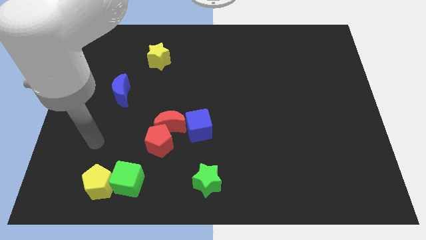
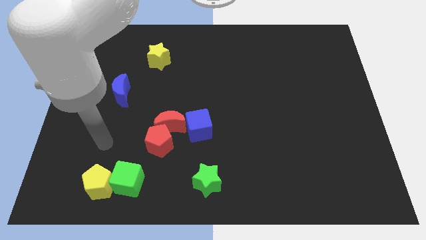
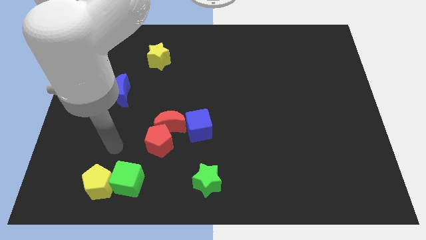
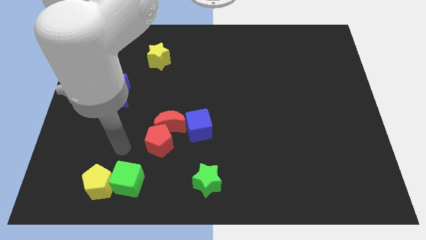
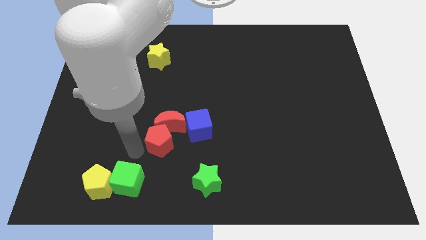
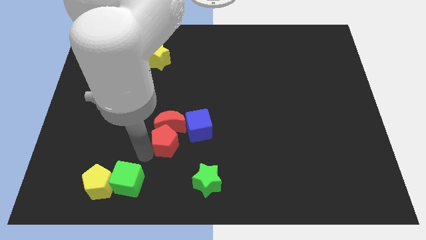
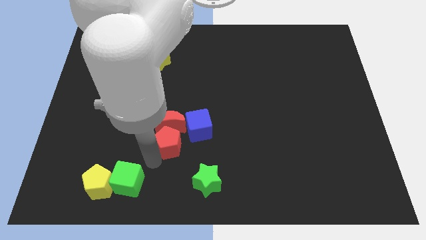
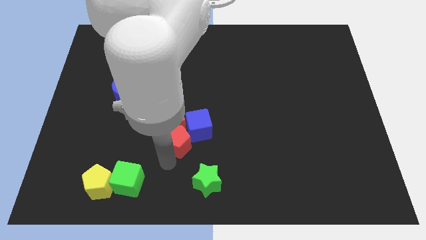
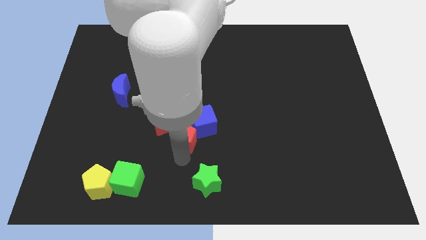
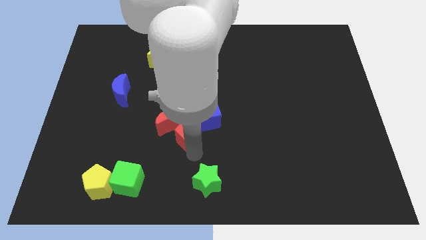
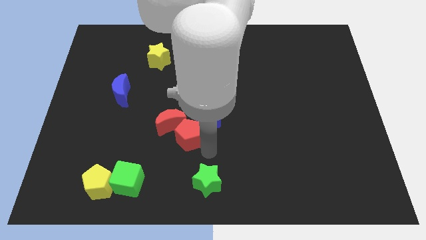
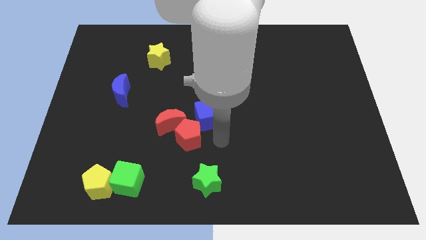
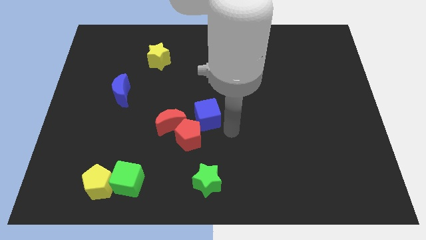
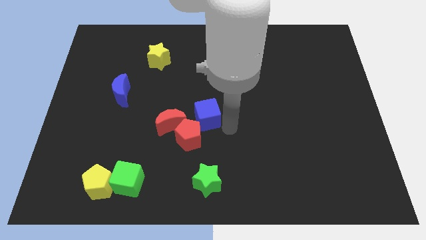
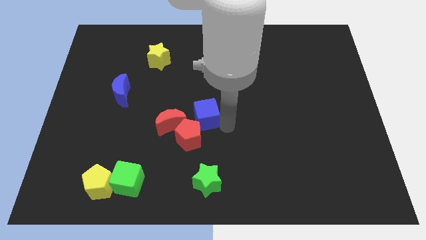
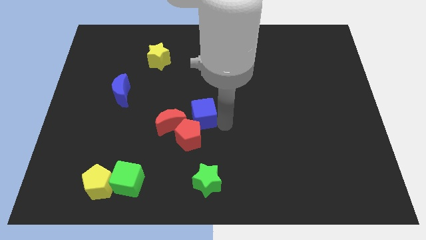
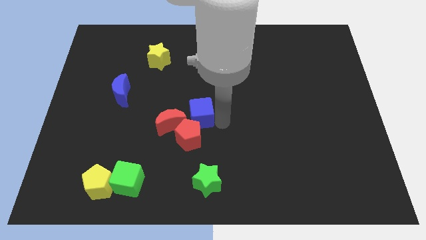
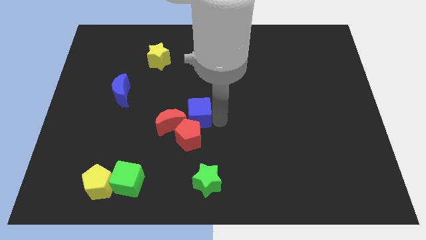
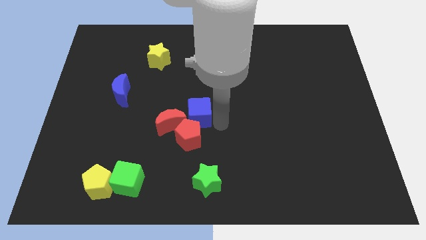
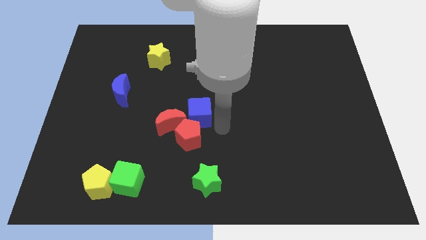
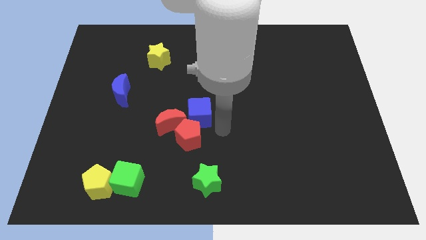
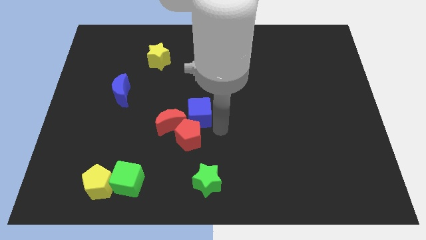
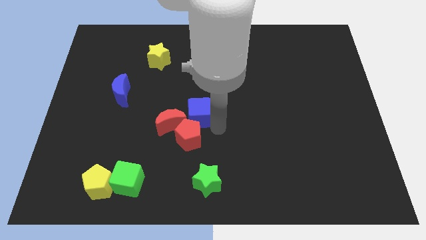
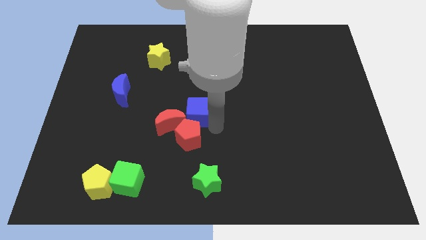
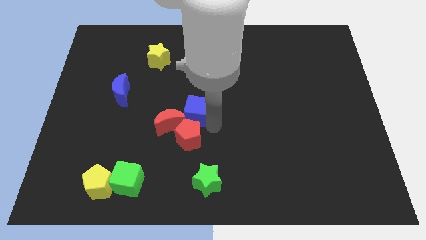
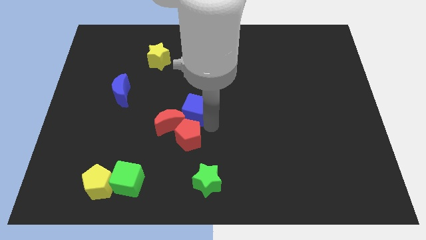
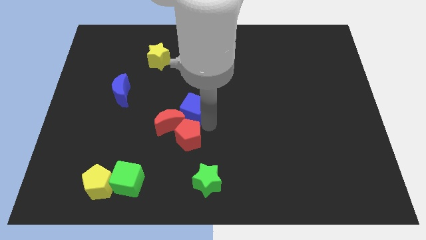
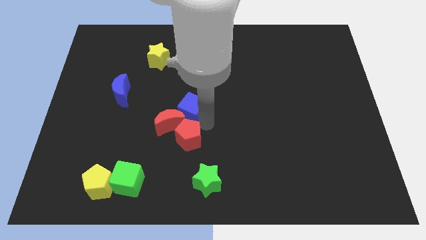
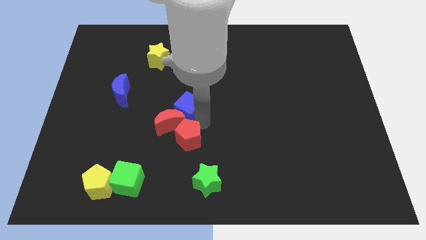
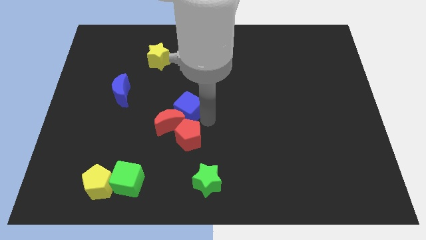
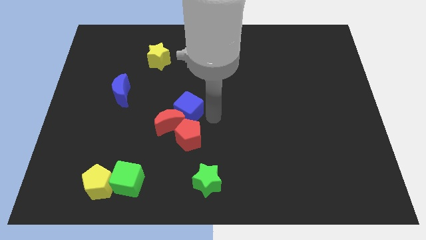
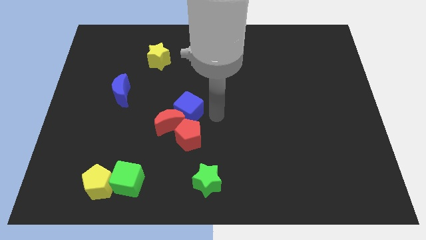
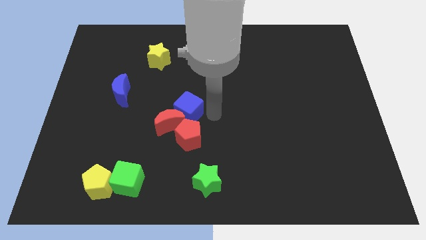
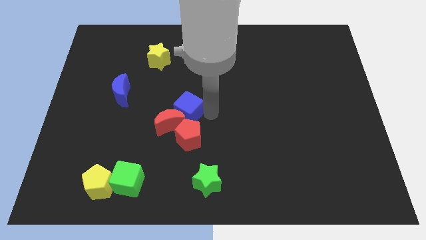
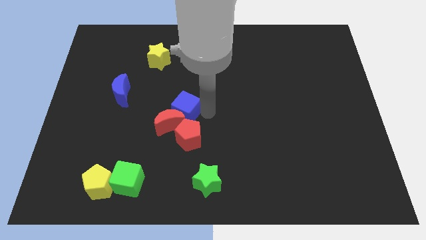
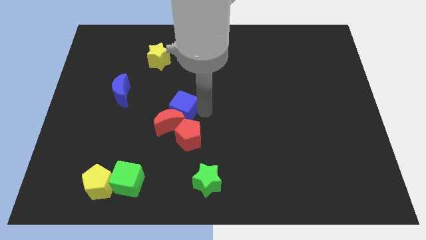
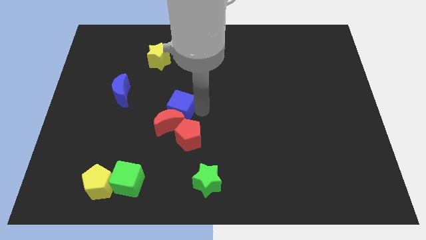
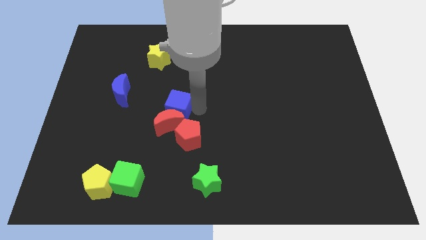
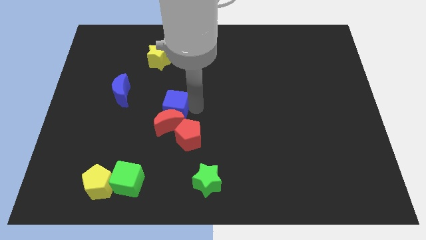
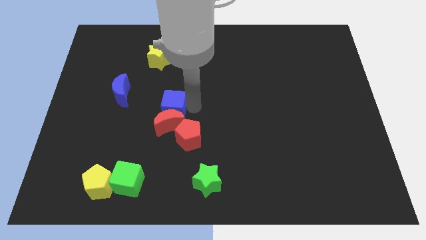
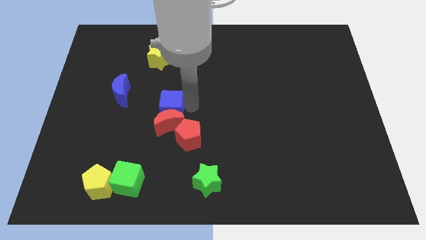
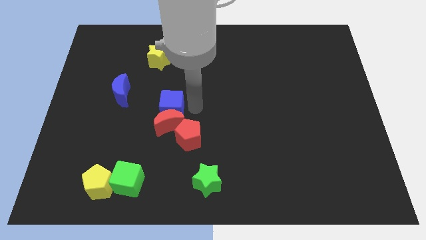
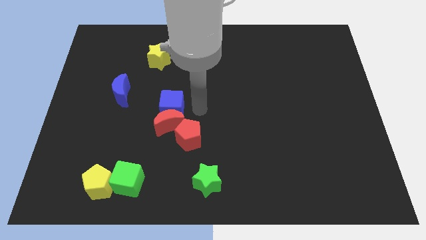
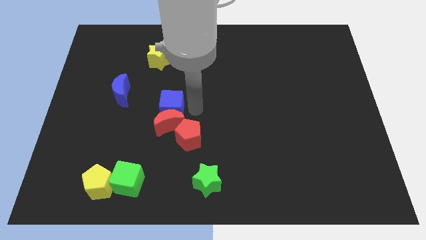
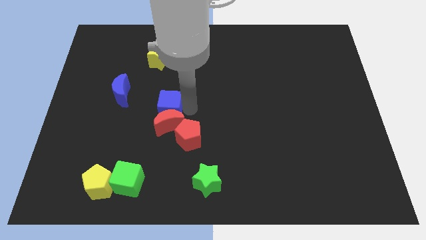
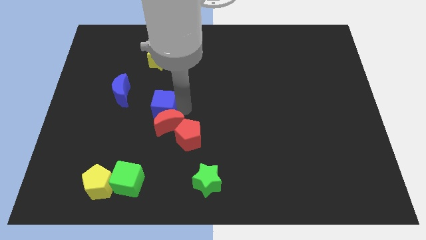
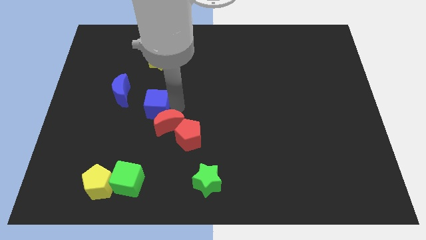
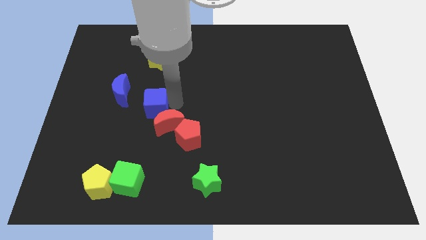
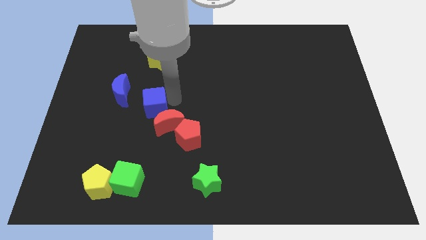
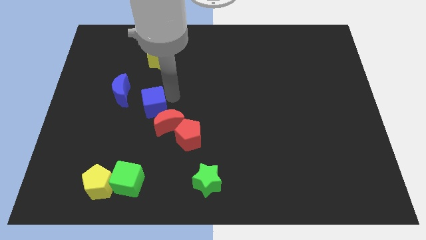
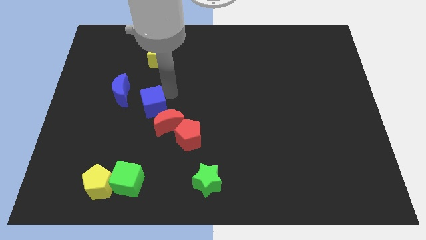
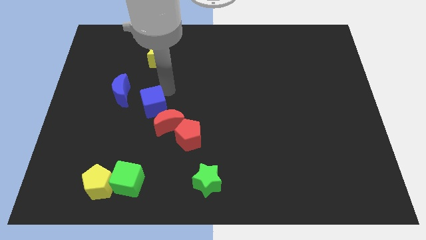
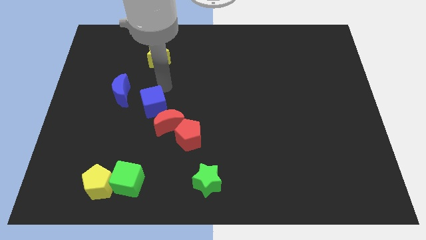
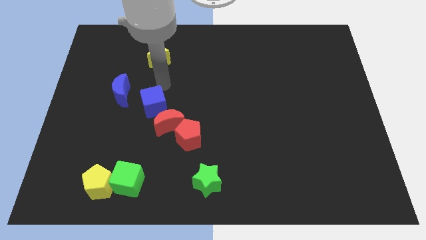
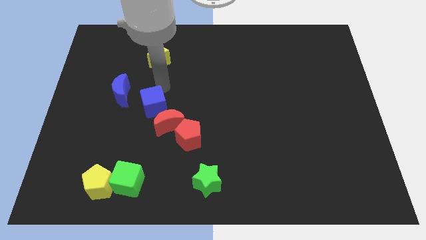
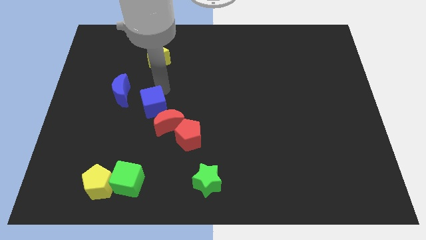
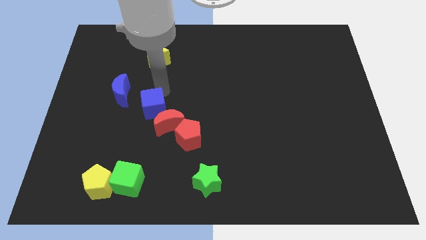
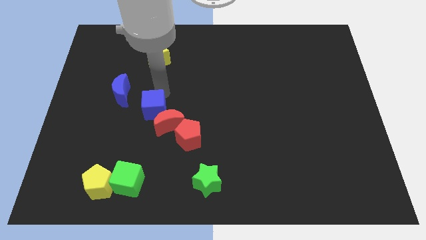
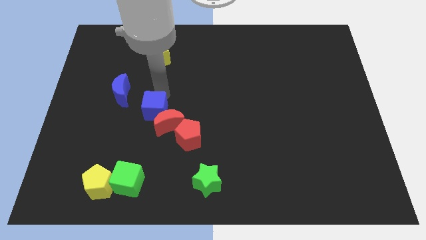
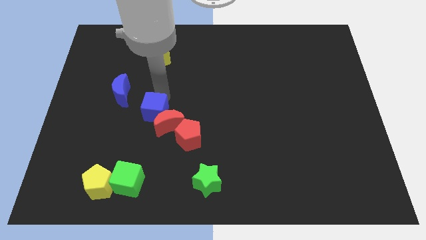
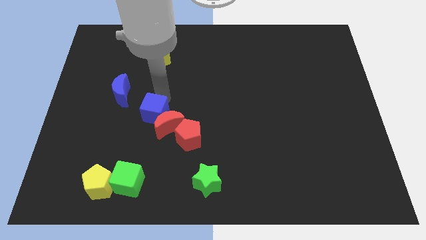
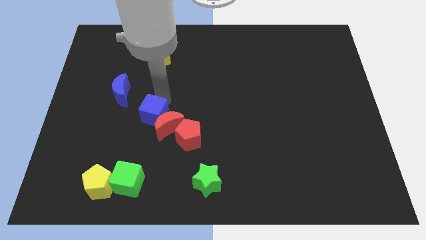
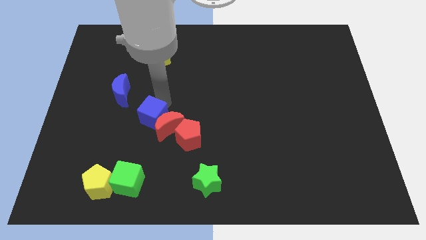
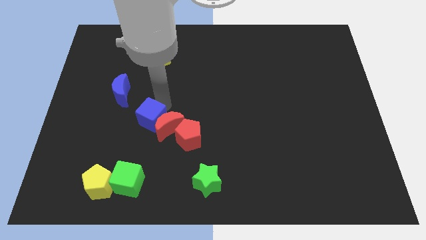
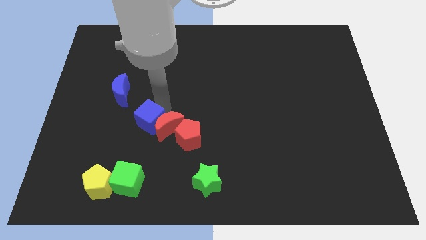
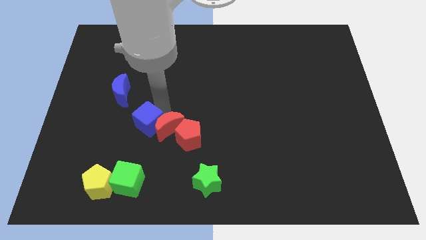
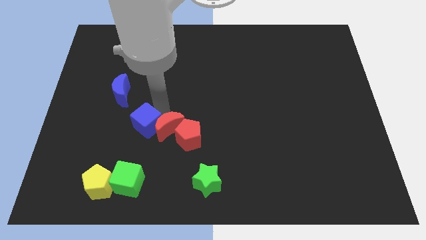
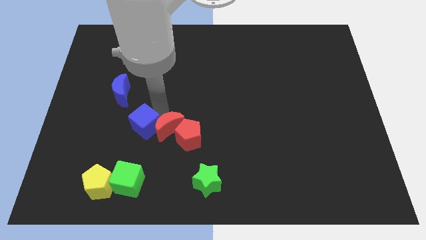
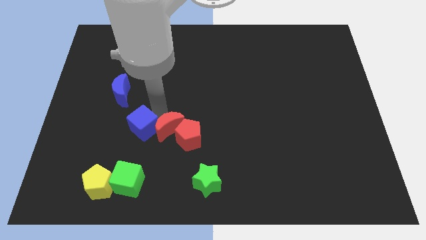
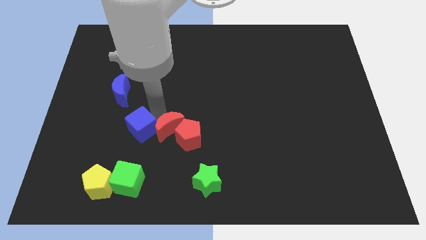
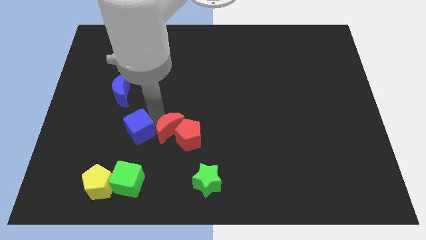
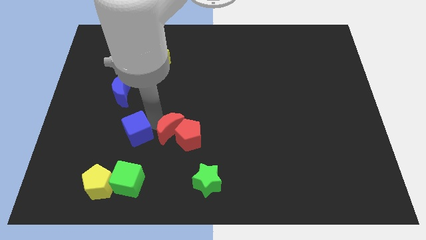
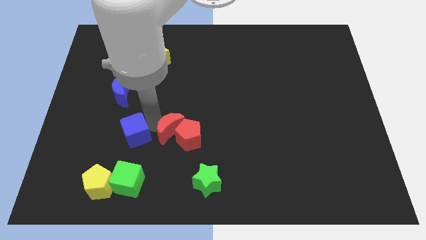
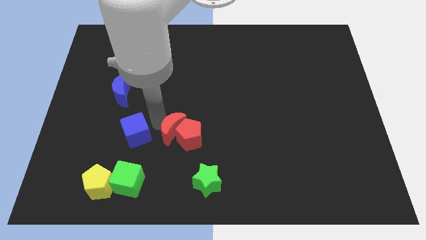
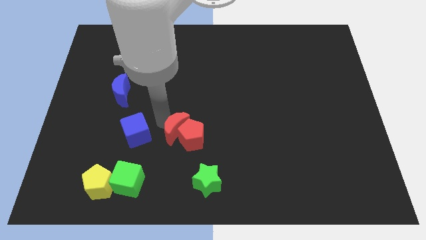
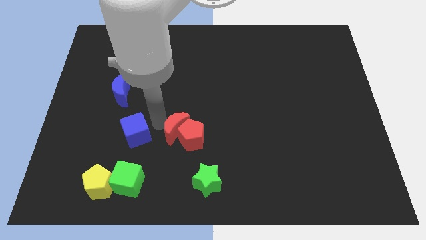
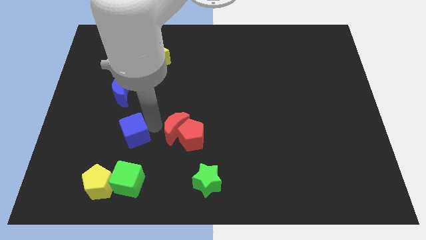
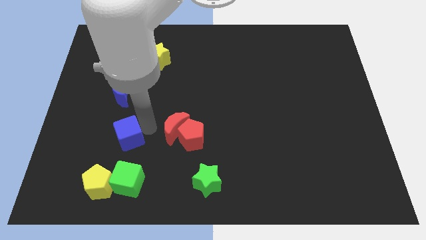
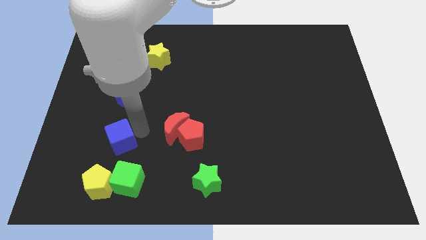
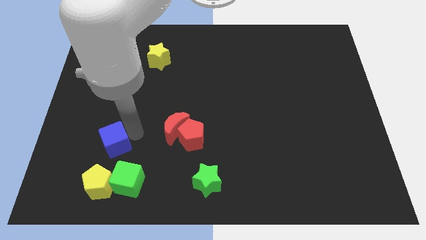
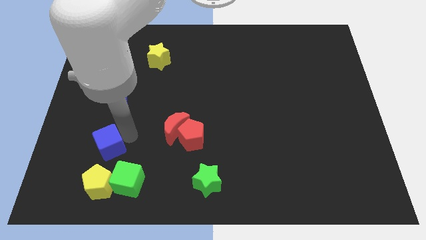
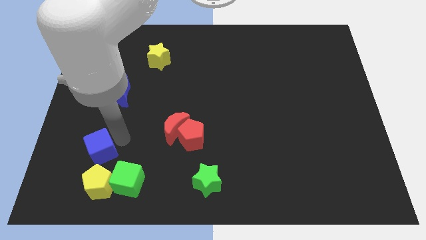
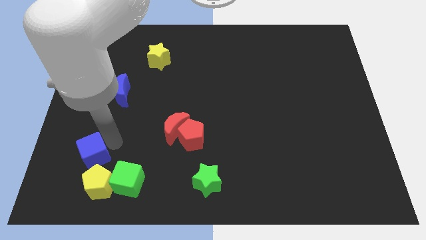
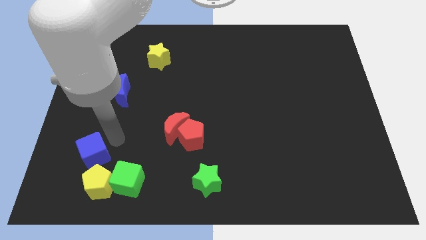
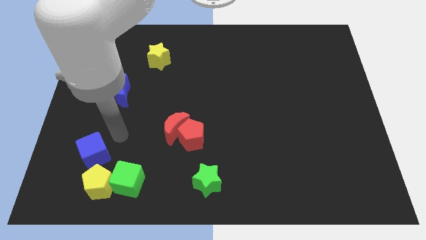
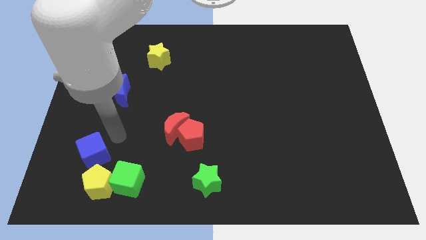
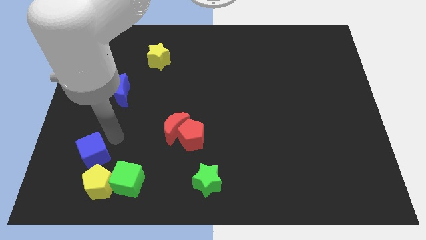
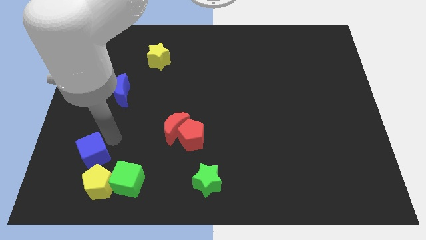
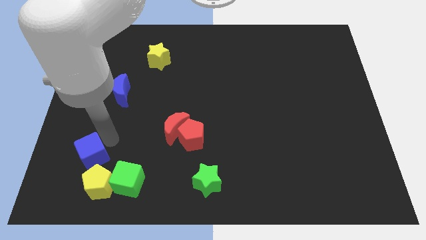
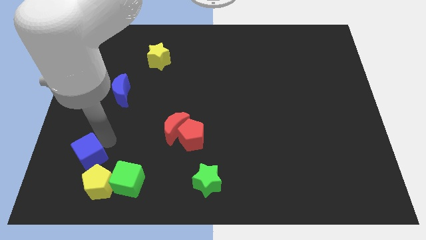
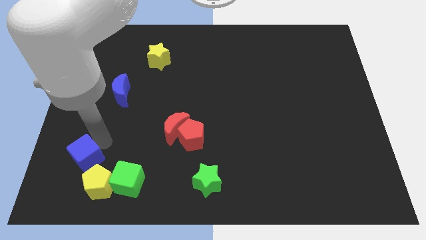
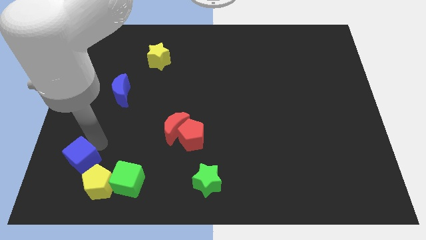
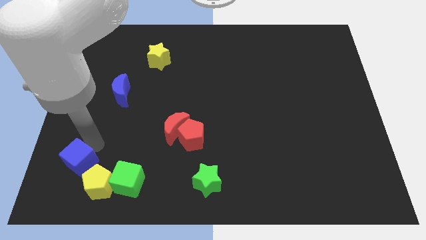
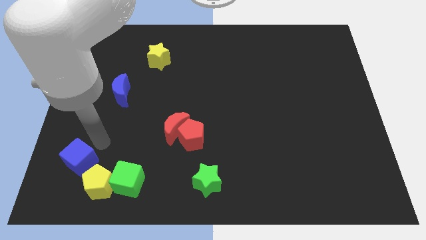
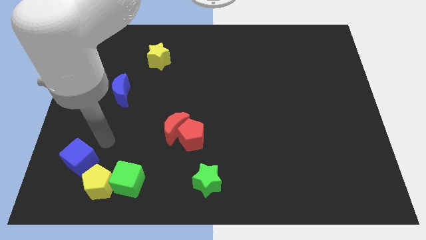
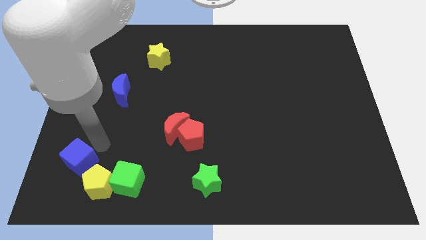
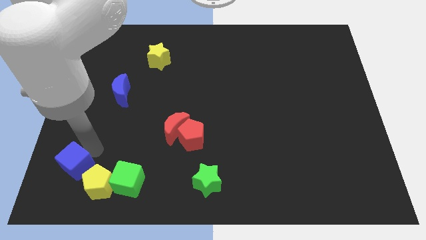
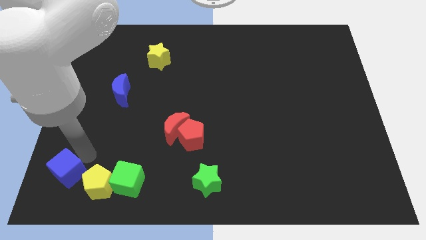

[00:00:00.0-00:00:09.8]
put the blue cube to the lower left corner
